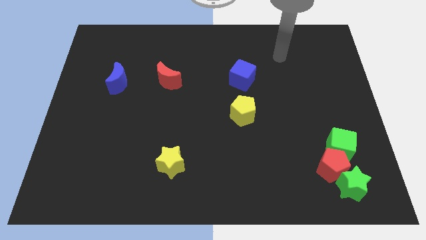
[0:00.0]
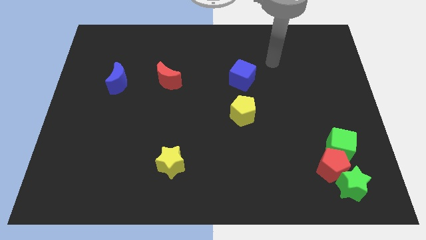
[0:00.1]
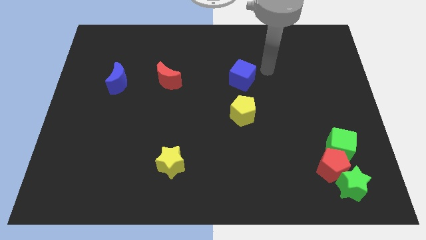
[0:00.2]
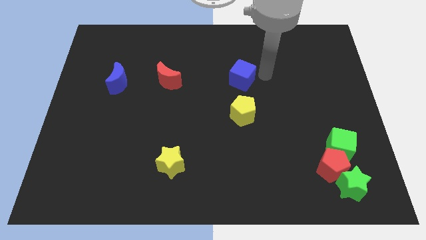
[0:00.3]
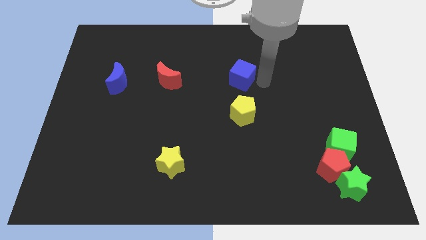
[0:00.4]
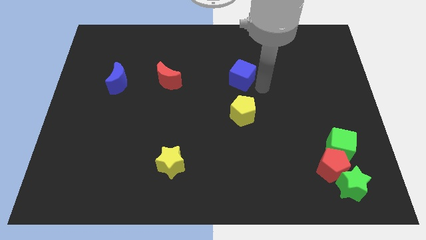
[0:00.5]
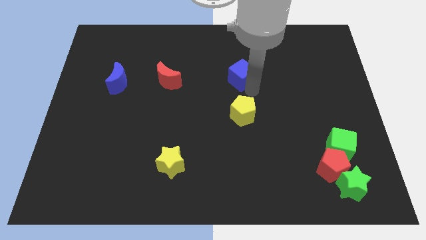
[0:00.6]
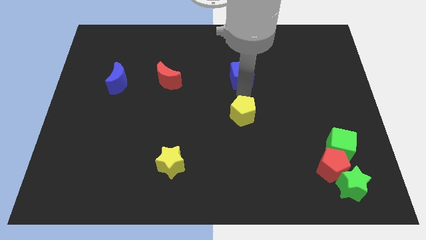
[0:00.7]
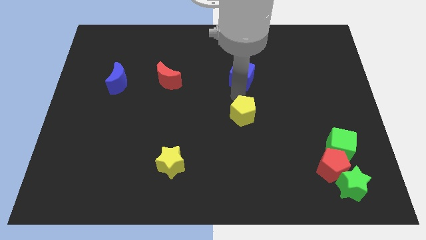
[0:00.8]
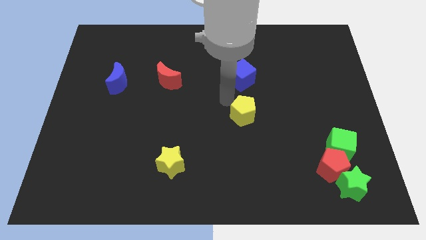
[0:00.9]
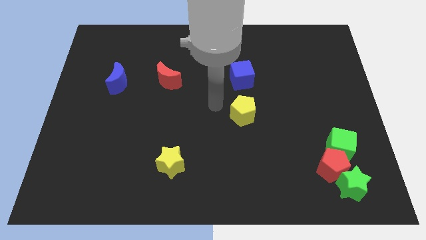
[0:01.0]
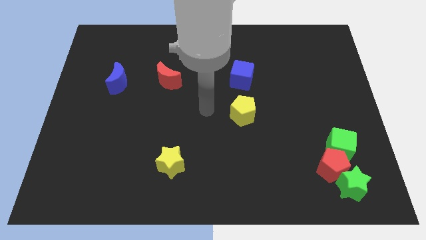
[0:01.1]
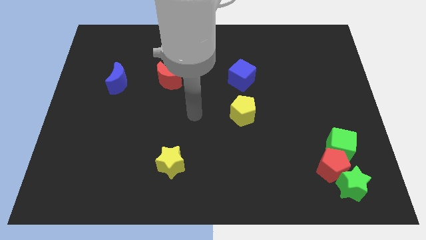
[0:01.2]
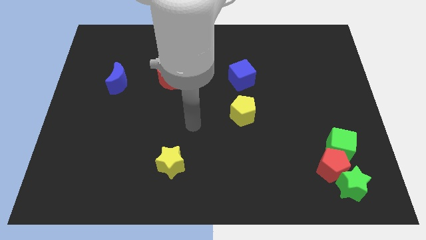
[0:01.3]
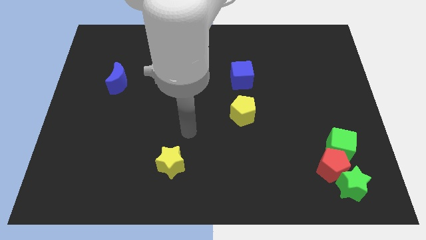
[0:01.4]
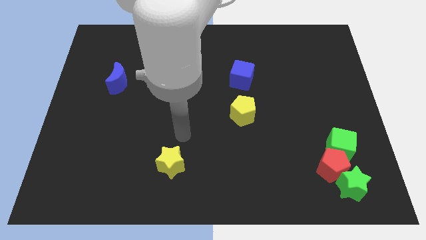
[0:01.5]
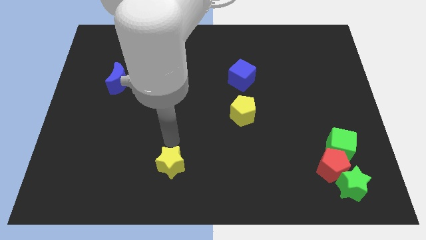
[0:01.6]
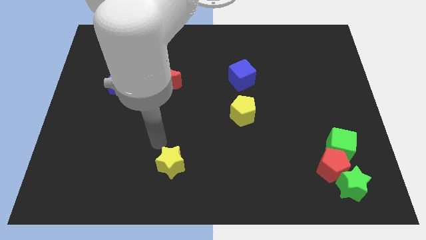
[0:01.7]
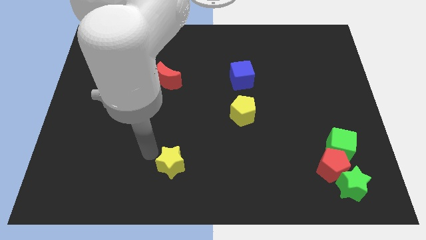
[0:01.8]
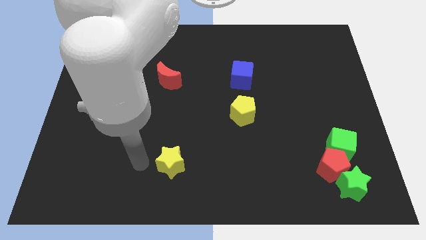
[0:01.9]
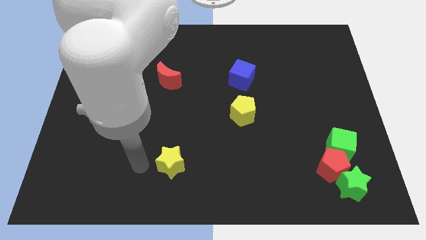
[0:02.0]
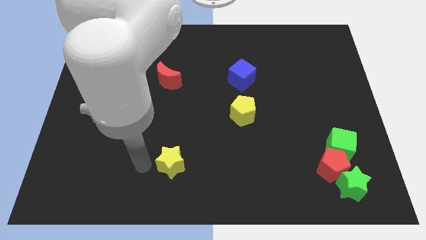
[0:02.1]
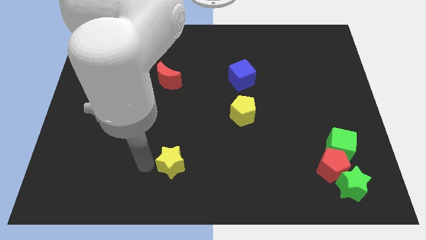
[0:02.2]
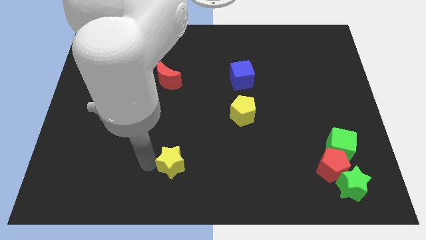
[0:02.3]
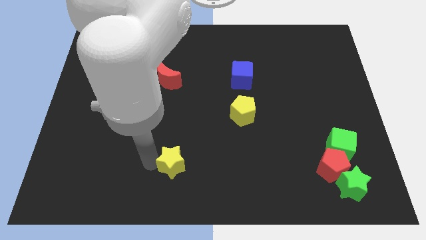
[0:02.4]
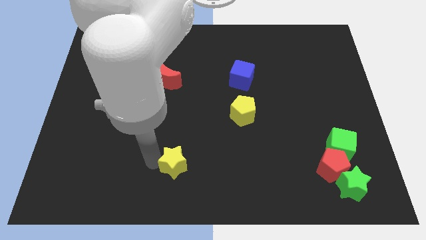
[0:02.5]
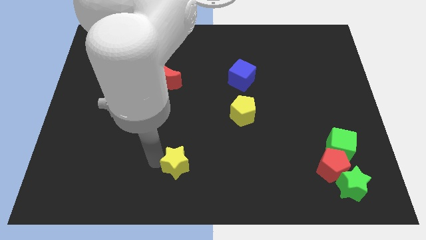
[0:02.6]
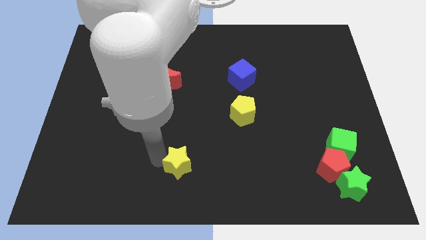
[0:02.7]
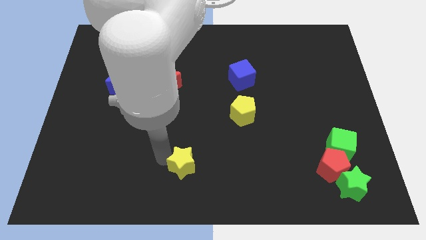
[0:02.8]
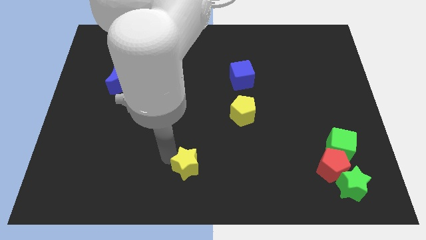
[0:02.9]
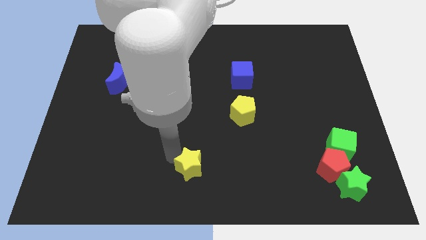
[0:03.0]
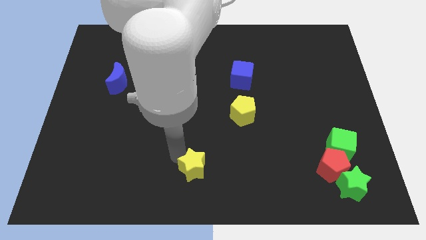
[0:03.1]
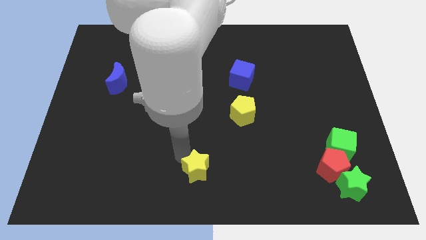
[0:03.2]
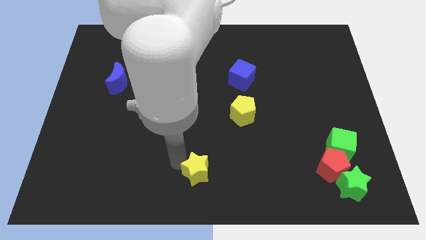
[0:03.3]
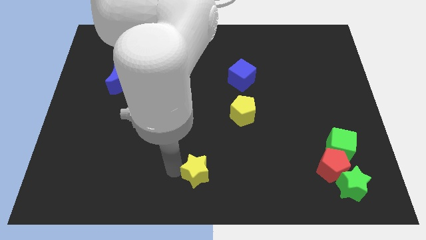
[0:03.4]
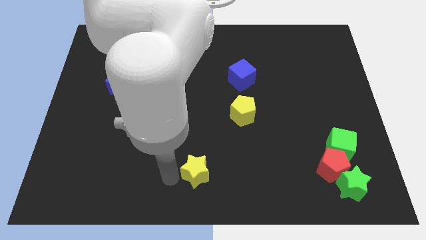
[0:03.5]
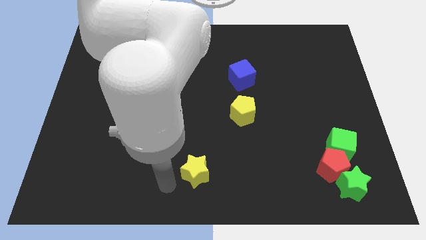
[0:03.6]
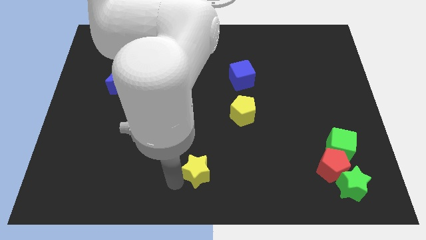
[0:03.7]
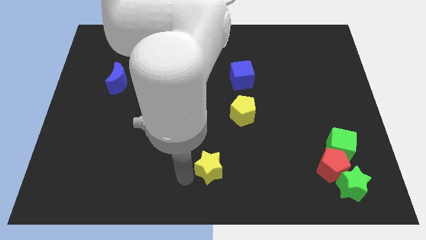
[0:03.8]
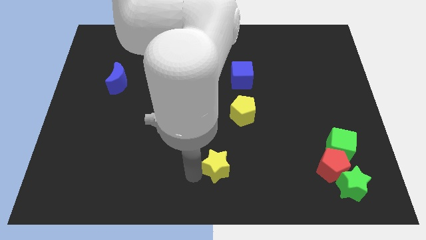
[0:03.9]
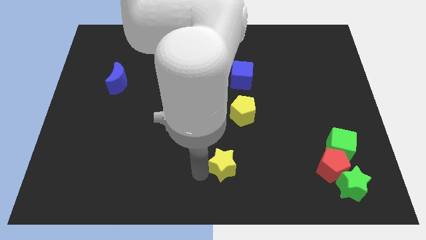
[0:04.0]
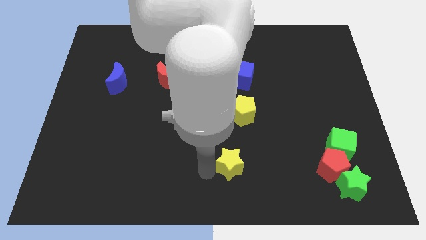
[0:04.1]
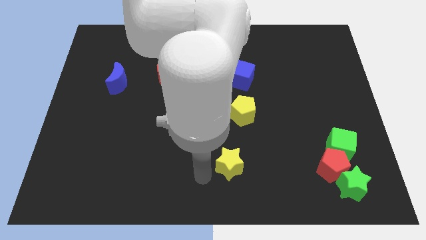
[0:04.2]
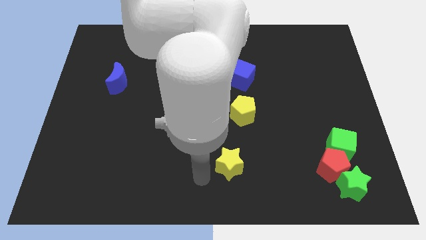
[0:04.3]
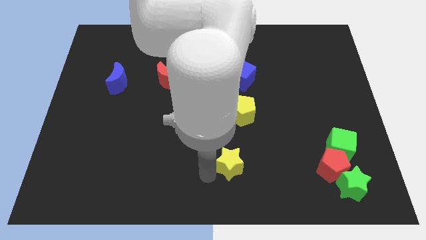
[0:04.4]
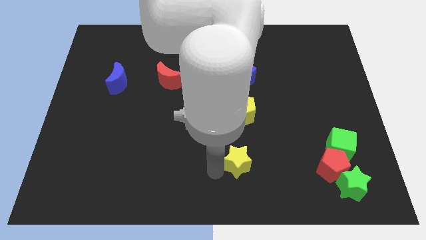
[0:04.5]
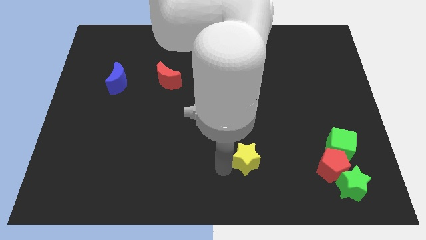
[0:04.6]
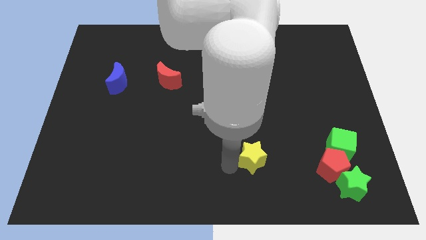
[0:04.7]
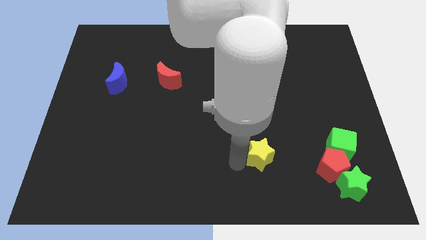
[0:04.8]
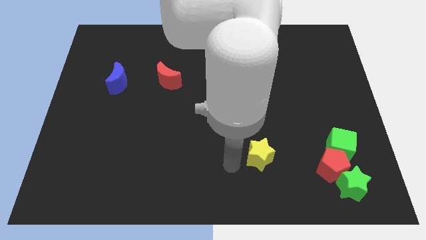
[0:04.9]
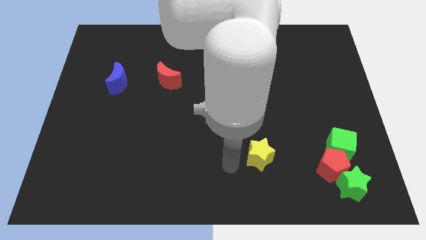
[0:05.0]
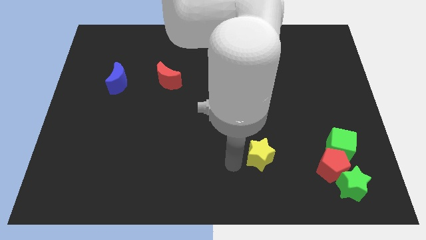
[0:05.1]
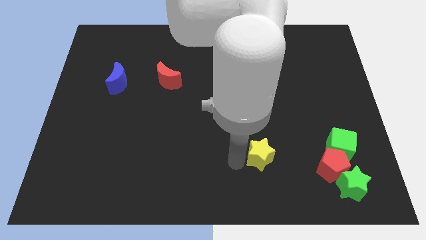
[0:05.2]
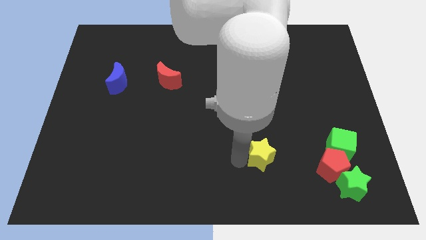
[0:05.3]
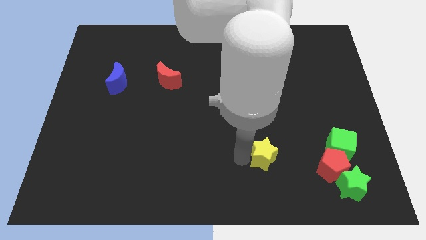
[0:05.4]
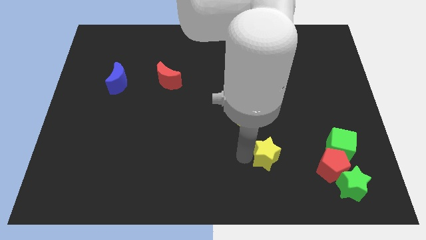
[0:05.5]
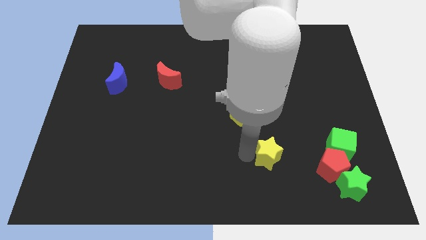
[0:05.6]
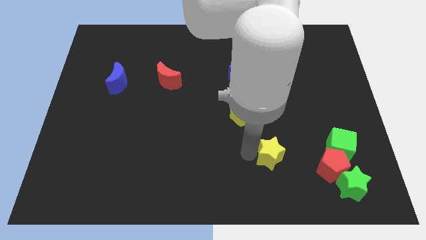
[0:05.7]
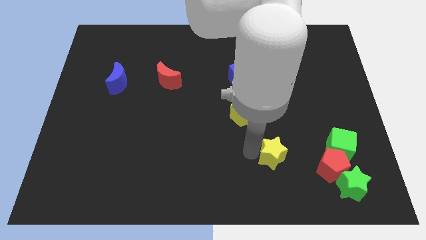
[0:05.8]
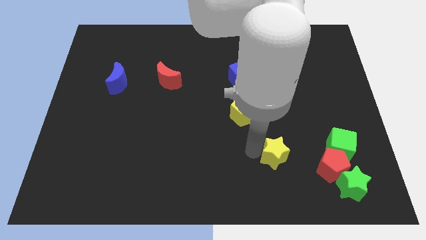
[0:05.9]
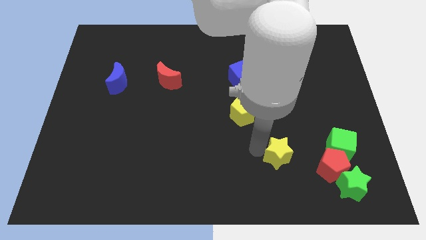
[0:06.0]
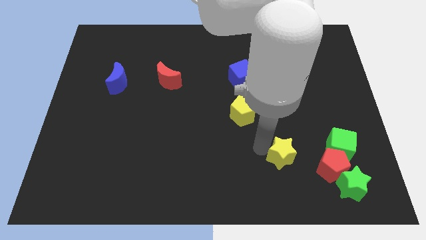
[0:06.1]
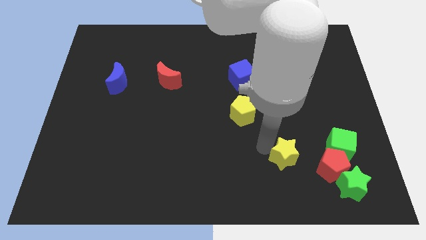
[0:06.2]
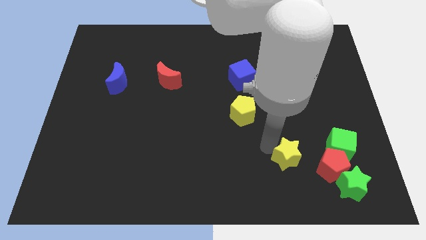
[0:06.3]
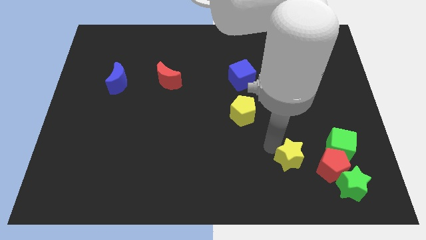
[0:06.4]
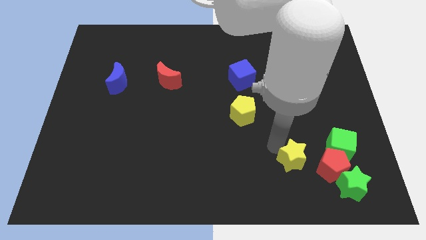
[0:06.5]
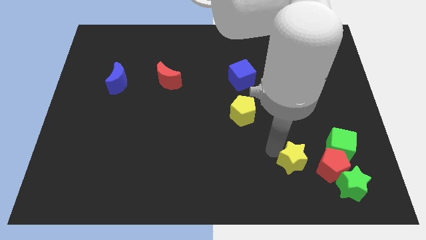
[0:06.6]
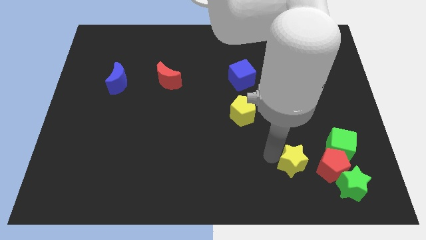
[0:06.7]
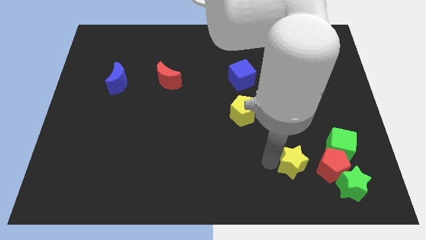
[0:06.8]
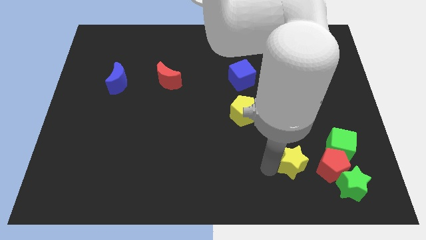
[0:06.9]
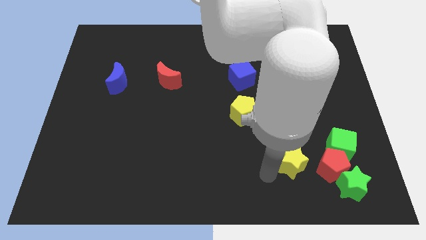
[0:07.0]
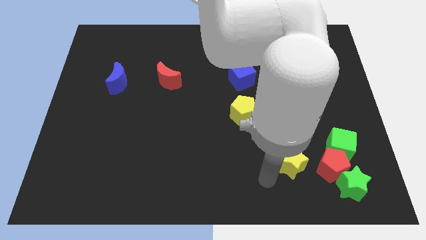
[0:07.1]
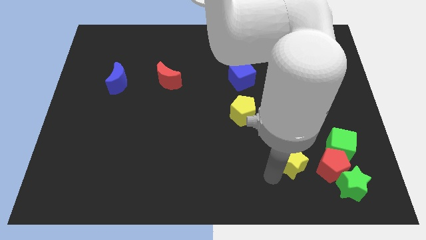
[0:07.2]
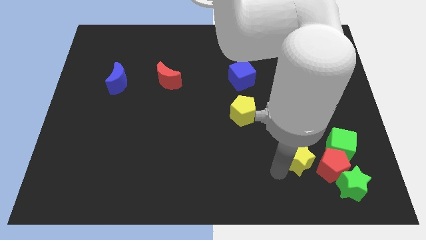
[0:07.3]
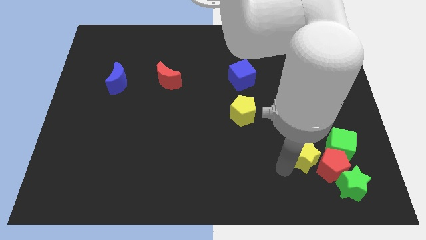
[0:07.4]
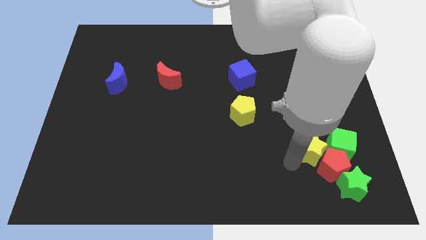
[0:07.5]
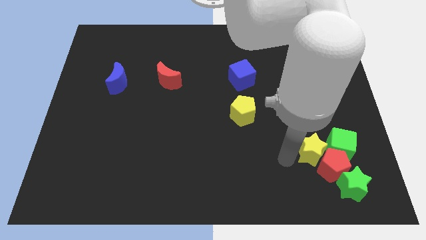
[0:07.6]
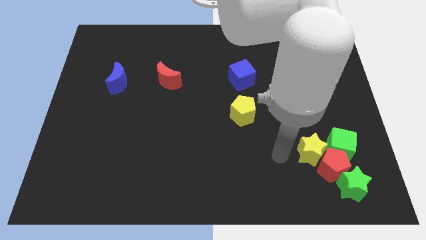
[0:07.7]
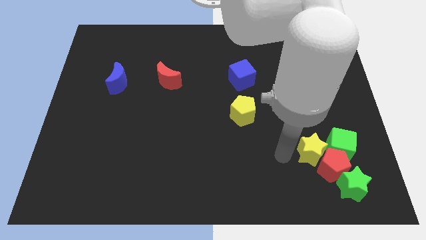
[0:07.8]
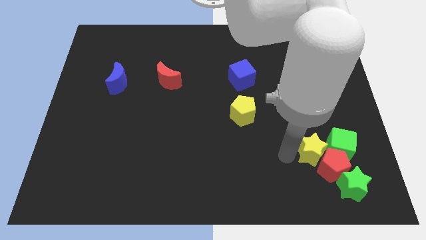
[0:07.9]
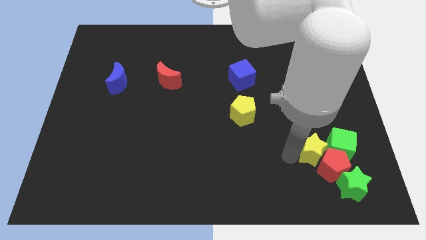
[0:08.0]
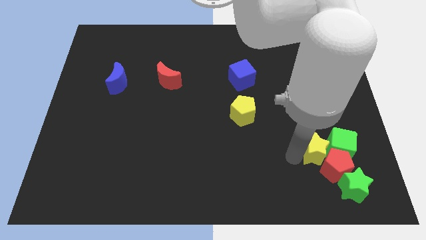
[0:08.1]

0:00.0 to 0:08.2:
move the yellow star towards the green cube
